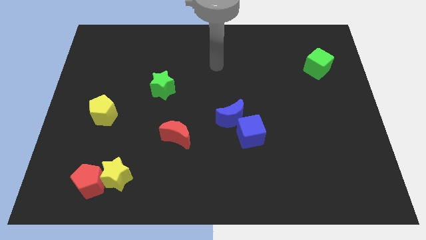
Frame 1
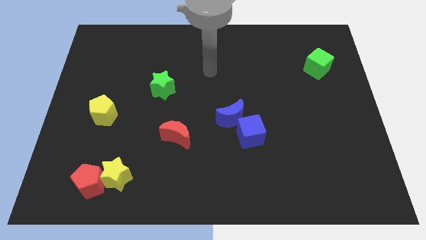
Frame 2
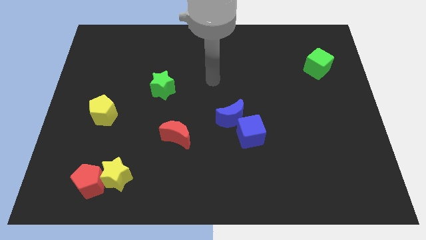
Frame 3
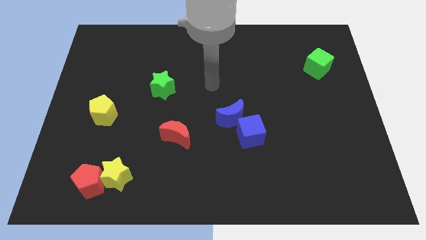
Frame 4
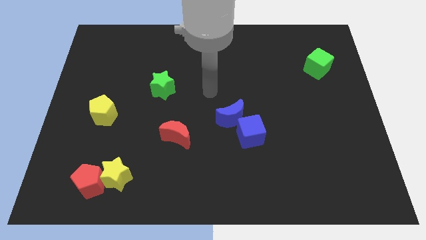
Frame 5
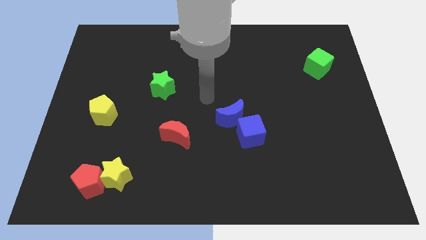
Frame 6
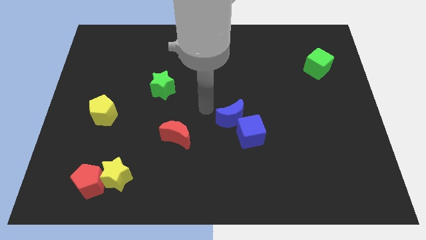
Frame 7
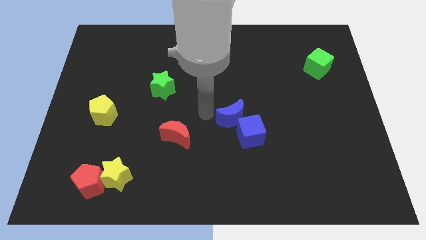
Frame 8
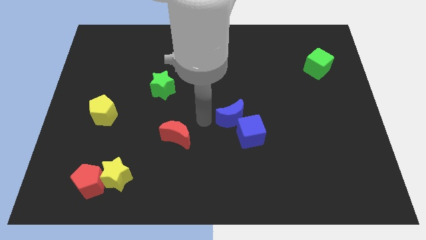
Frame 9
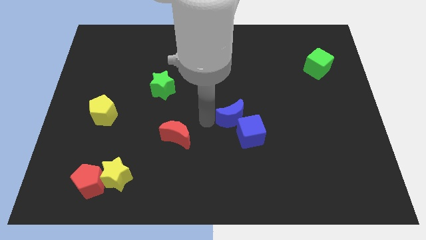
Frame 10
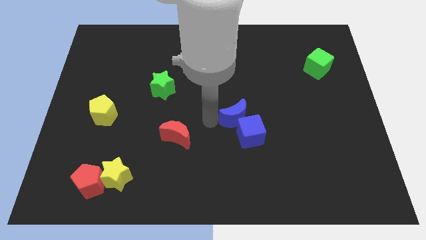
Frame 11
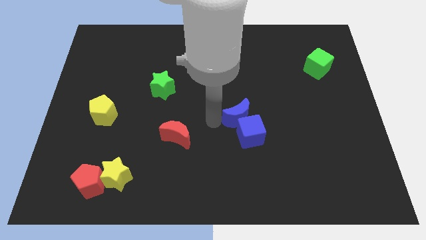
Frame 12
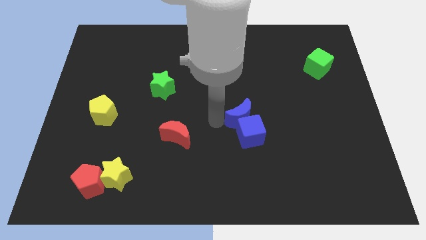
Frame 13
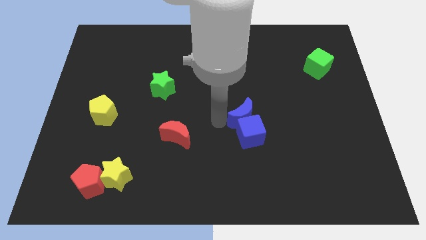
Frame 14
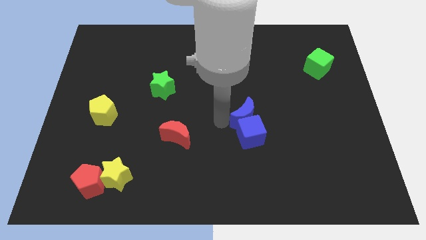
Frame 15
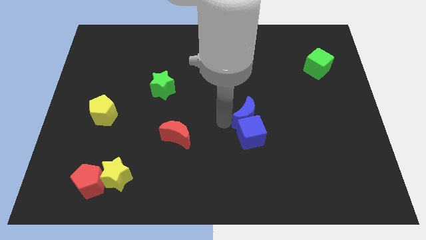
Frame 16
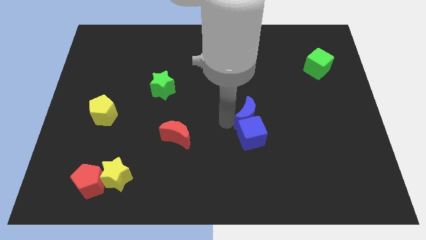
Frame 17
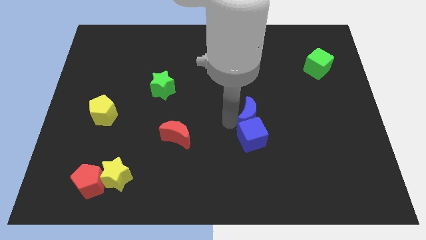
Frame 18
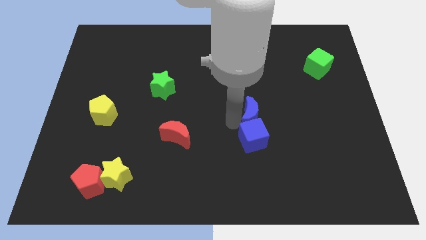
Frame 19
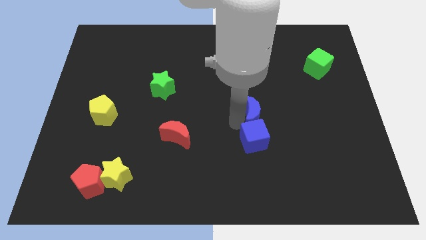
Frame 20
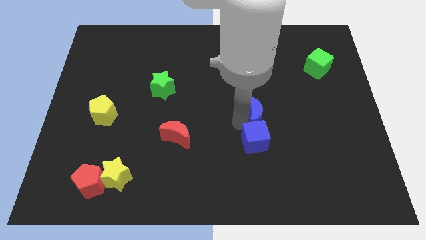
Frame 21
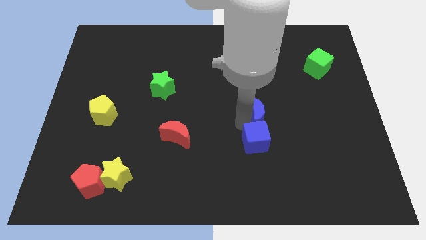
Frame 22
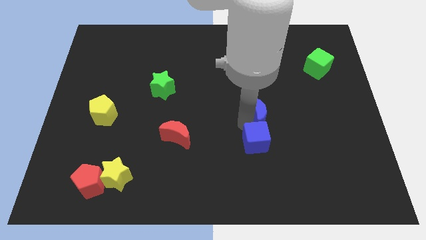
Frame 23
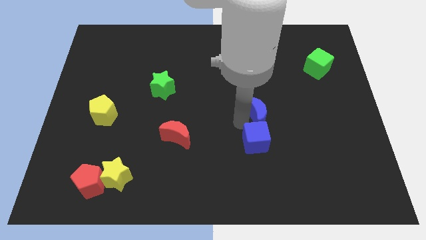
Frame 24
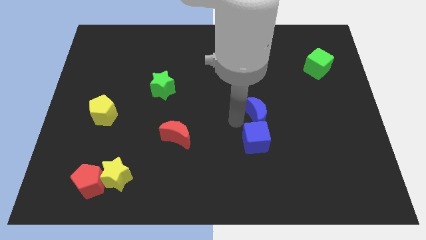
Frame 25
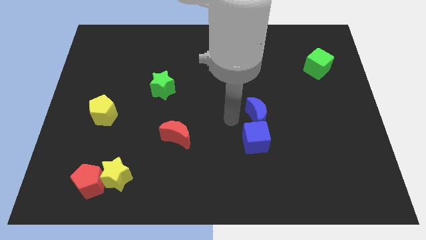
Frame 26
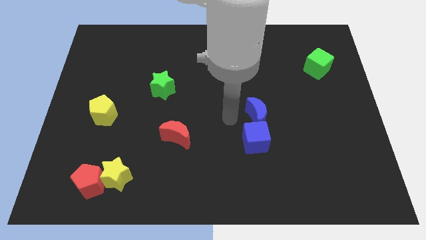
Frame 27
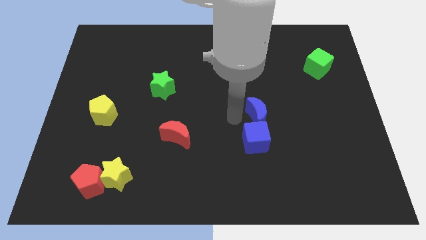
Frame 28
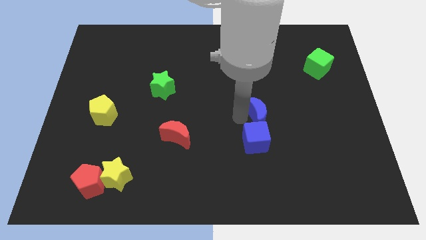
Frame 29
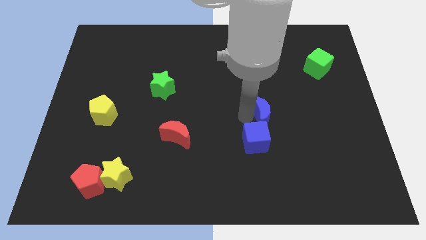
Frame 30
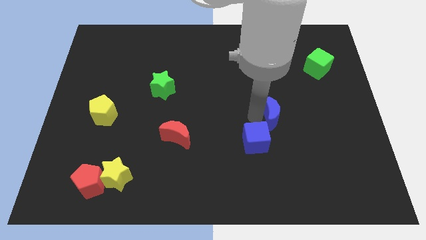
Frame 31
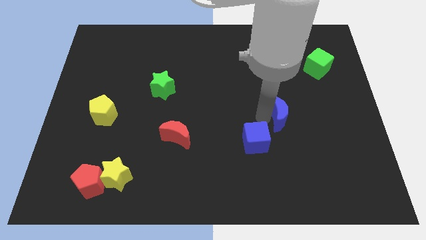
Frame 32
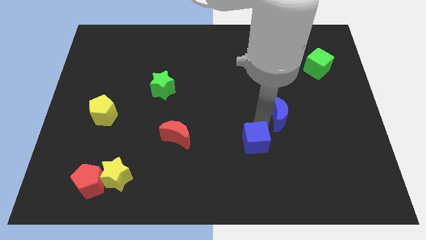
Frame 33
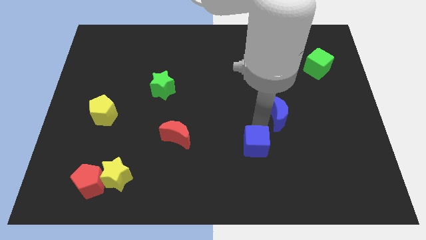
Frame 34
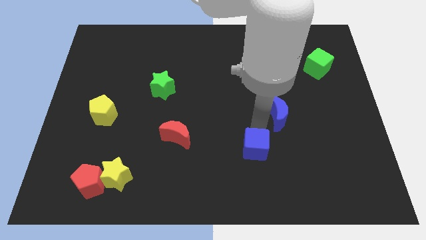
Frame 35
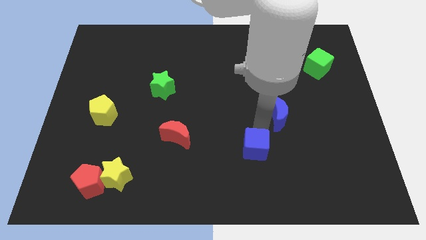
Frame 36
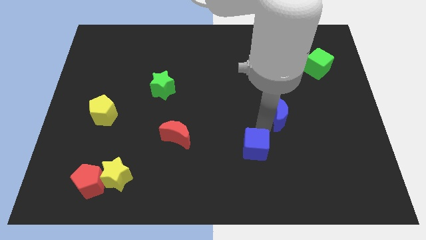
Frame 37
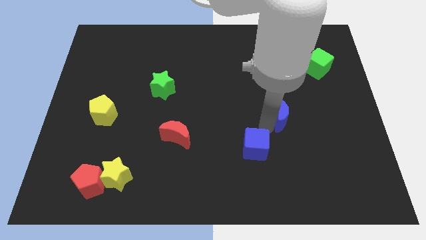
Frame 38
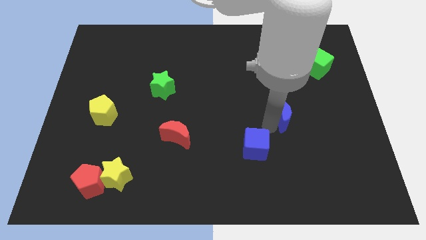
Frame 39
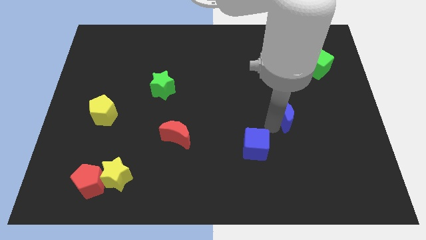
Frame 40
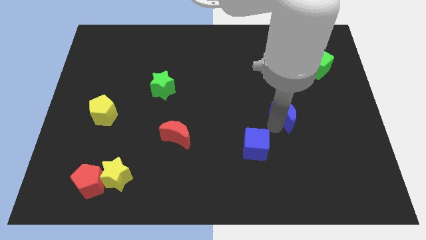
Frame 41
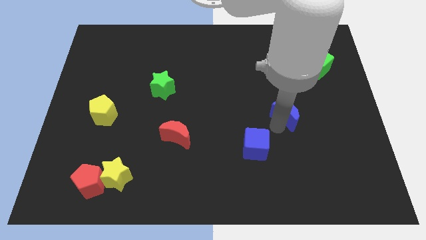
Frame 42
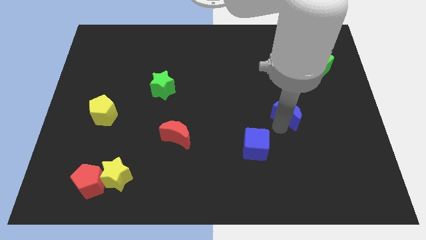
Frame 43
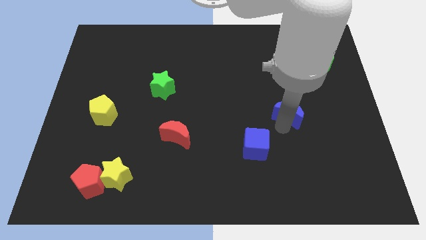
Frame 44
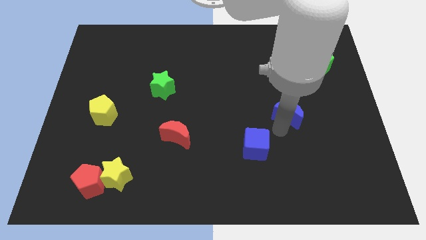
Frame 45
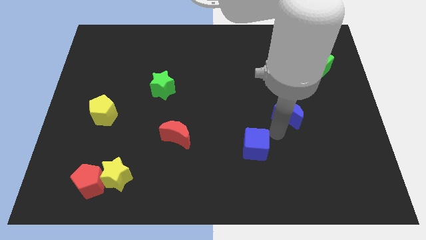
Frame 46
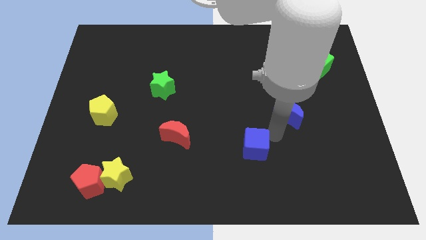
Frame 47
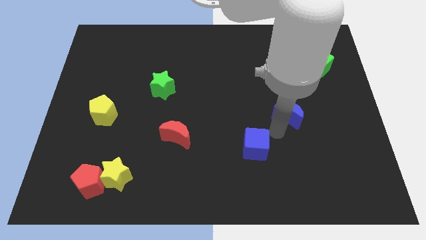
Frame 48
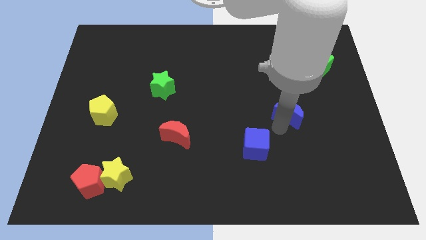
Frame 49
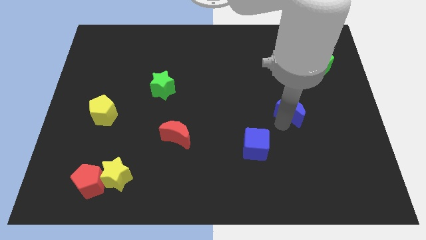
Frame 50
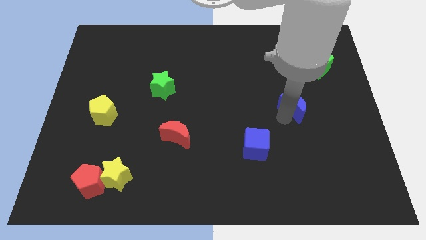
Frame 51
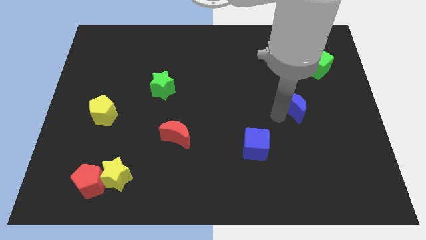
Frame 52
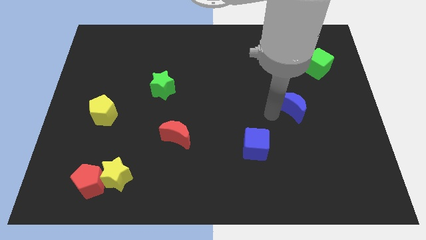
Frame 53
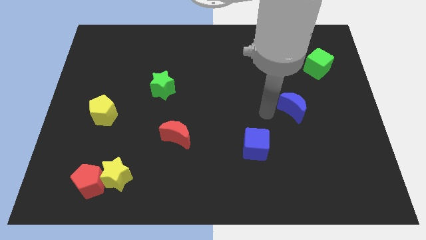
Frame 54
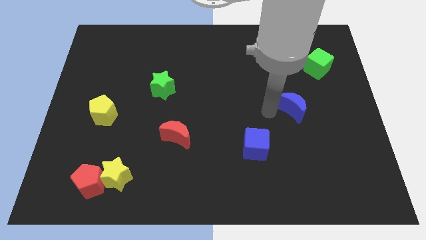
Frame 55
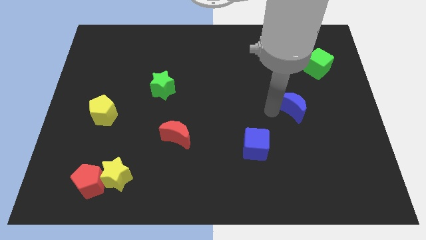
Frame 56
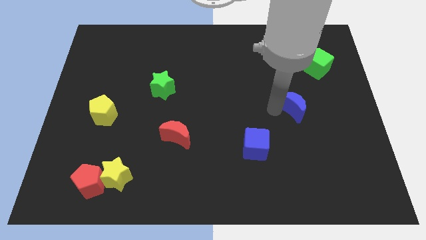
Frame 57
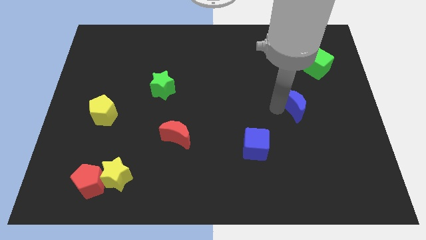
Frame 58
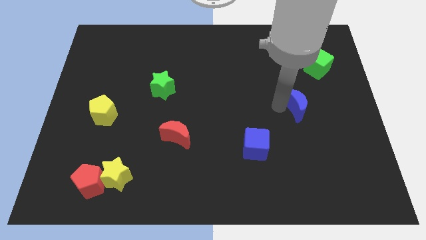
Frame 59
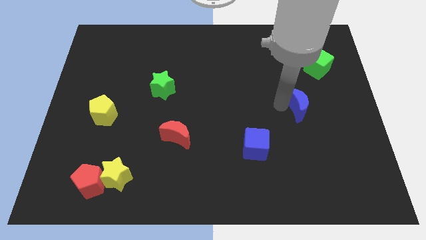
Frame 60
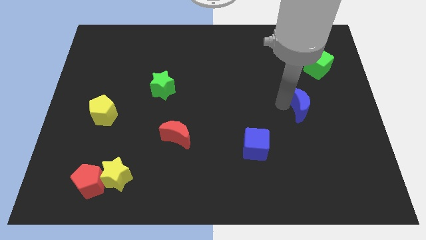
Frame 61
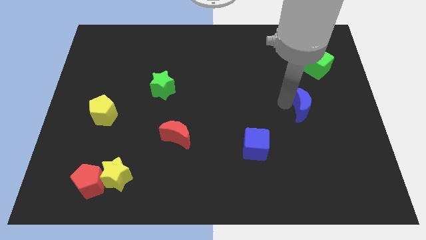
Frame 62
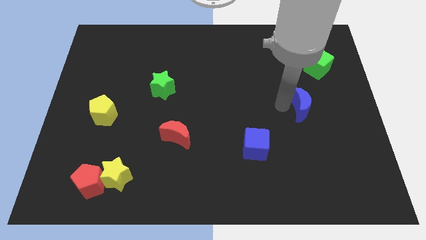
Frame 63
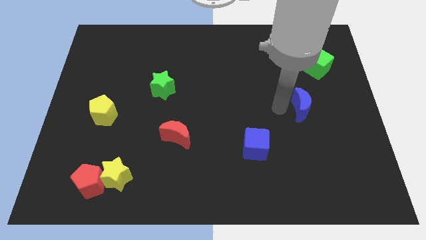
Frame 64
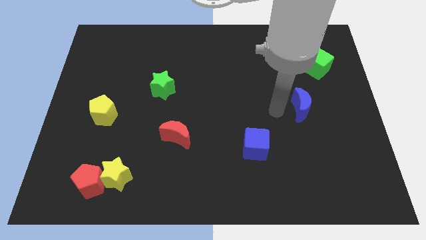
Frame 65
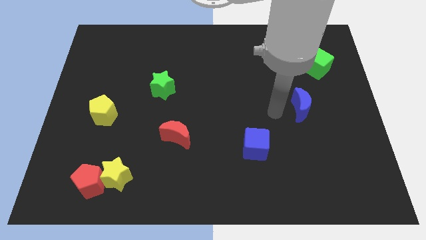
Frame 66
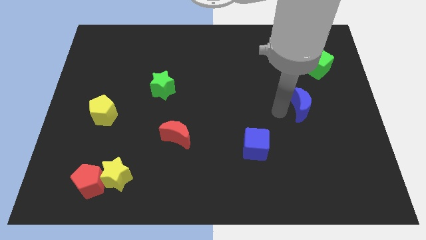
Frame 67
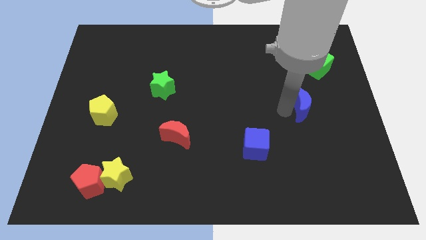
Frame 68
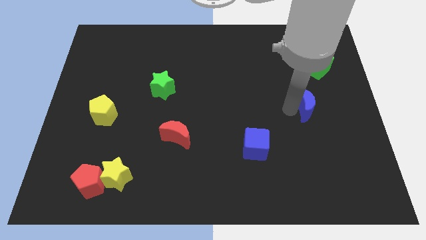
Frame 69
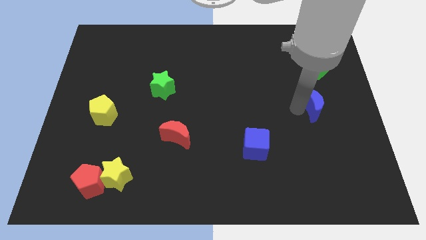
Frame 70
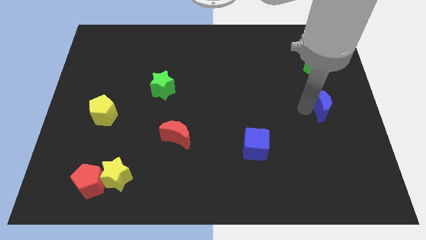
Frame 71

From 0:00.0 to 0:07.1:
push the blue moon to the right side

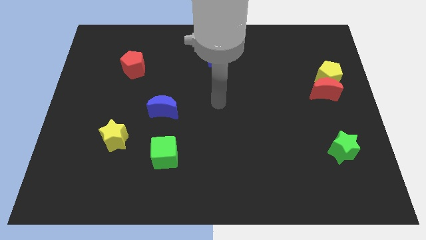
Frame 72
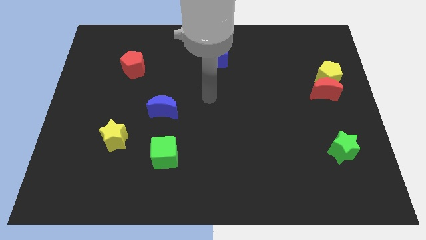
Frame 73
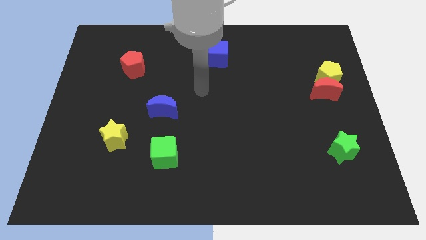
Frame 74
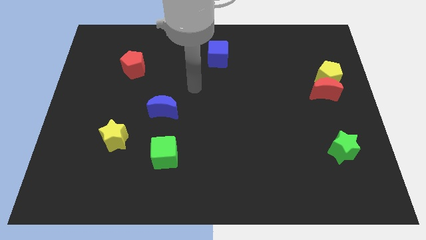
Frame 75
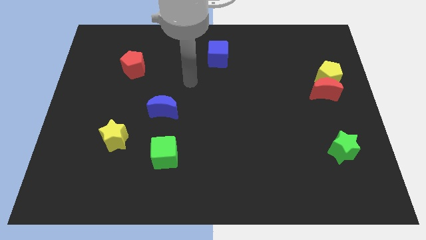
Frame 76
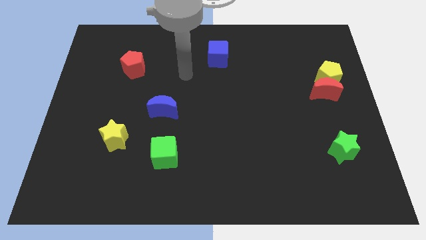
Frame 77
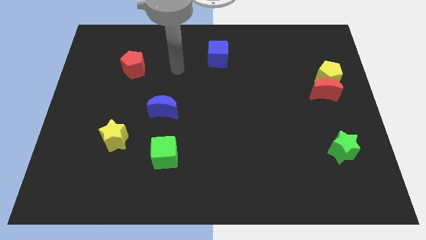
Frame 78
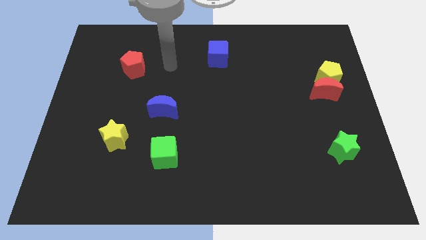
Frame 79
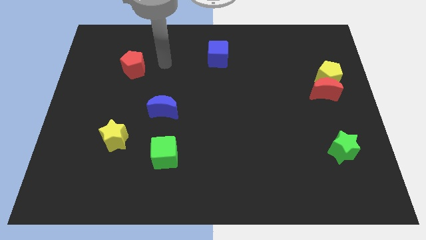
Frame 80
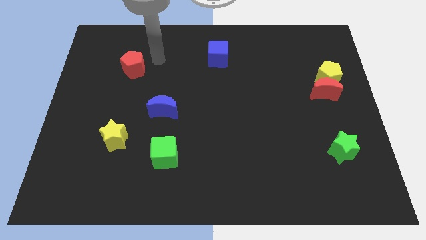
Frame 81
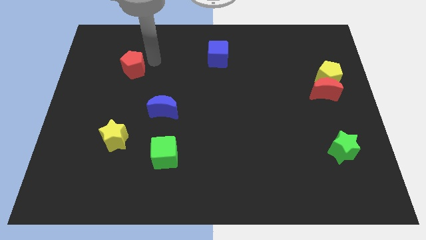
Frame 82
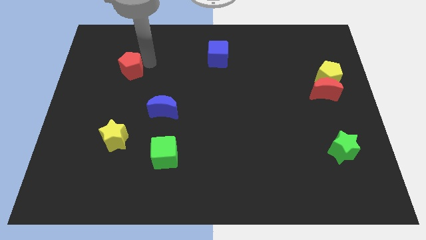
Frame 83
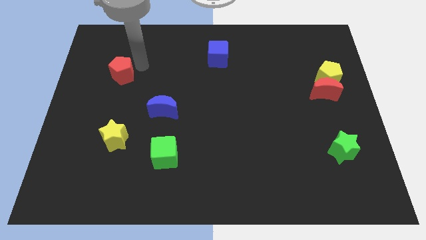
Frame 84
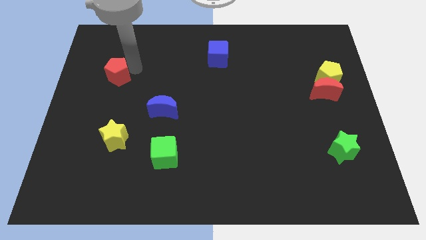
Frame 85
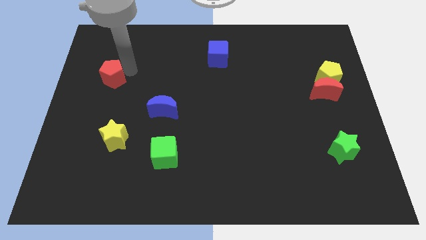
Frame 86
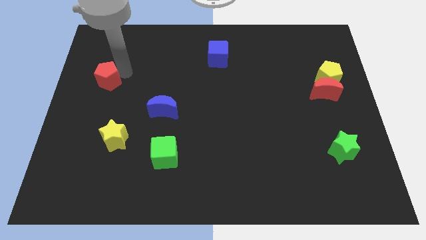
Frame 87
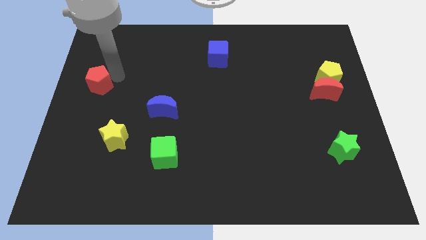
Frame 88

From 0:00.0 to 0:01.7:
move the red pentagon to the left side
